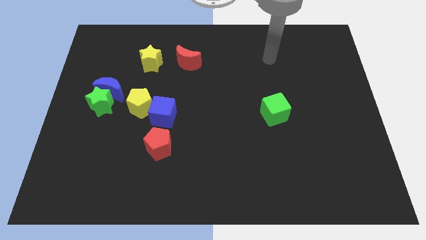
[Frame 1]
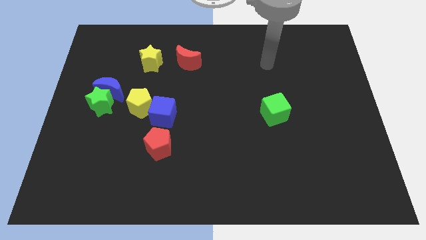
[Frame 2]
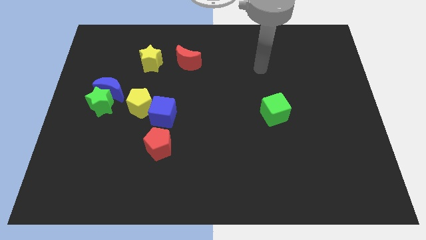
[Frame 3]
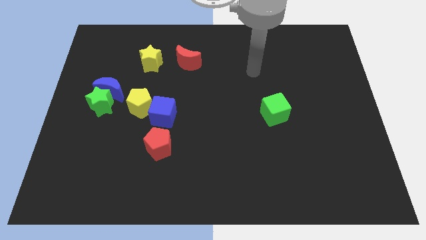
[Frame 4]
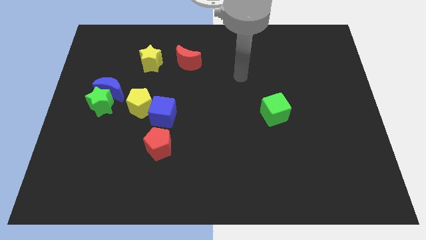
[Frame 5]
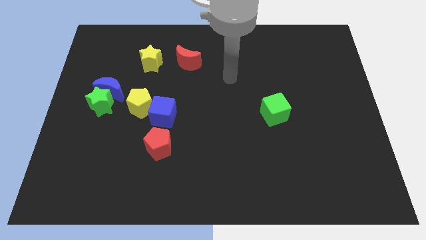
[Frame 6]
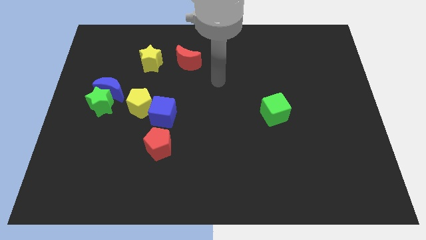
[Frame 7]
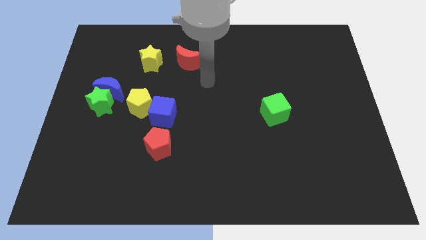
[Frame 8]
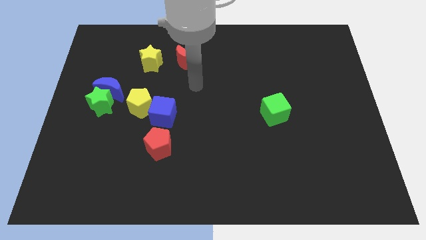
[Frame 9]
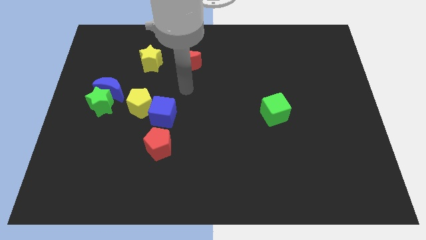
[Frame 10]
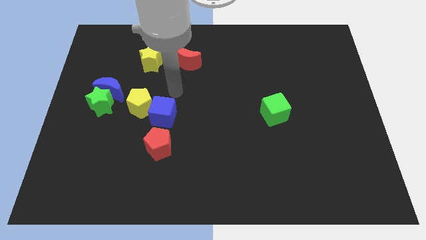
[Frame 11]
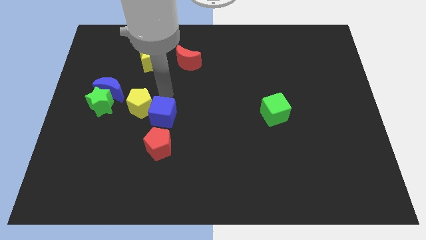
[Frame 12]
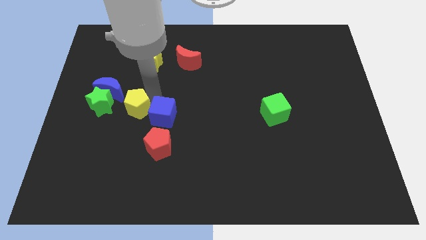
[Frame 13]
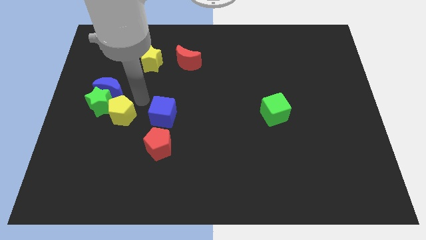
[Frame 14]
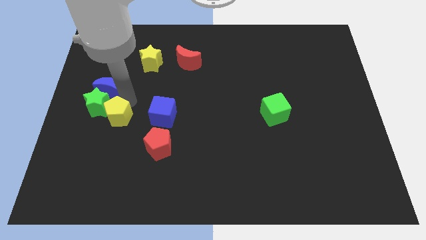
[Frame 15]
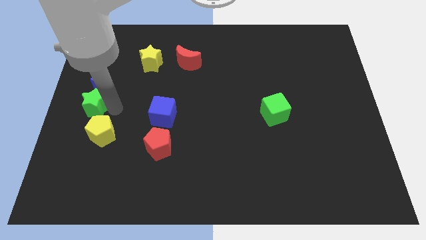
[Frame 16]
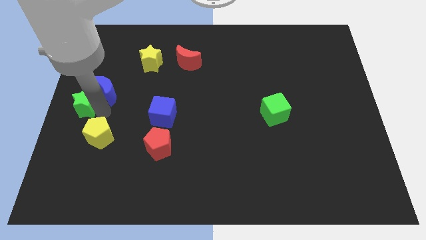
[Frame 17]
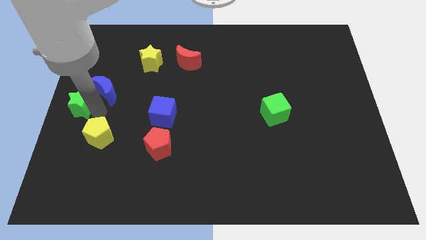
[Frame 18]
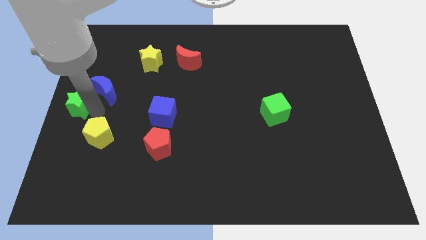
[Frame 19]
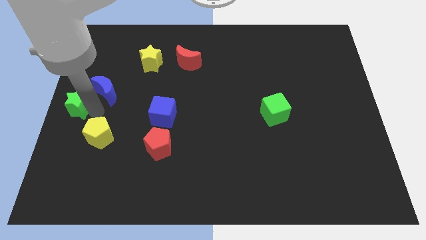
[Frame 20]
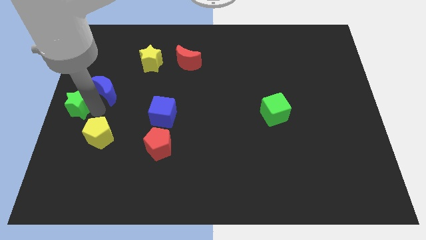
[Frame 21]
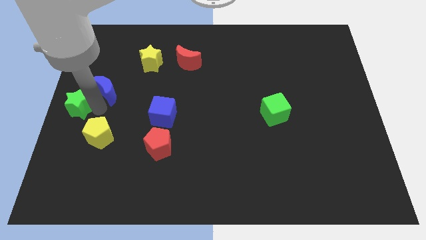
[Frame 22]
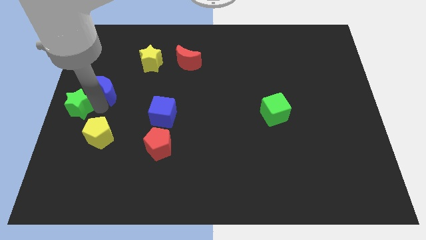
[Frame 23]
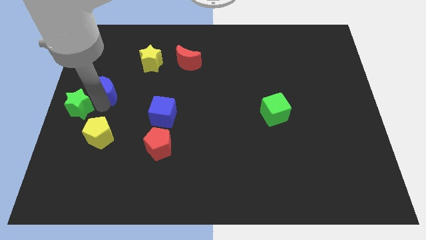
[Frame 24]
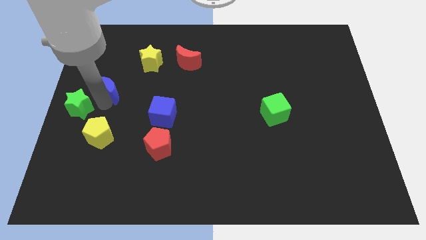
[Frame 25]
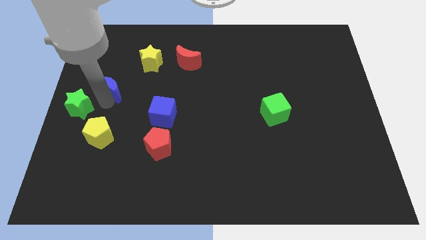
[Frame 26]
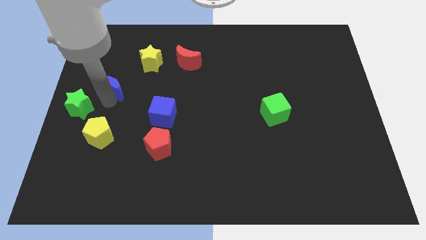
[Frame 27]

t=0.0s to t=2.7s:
move the blue moon away from the green star and yellow pentagon

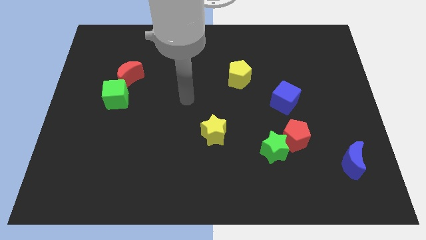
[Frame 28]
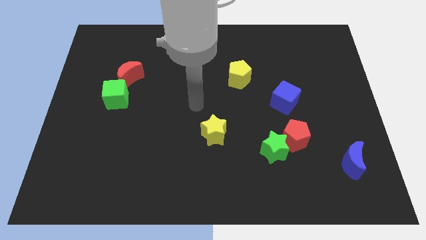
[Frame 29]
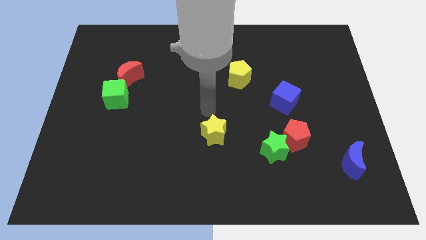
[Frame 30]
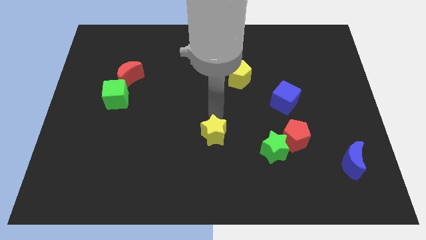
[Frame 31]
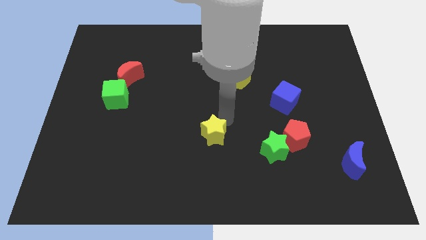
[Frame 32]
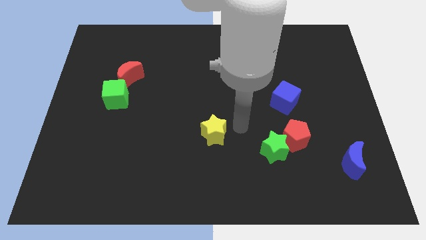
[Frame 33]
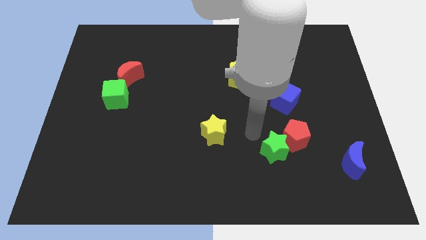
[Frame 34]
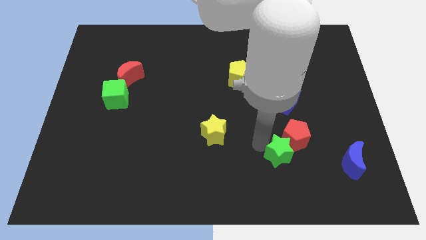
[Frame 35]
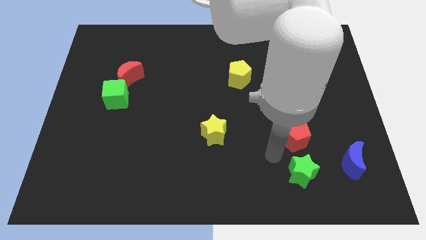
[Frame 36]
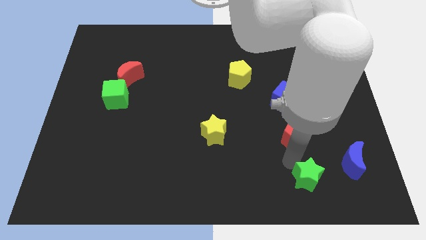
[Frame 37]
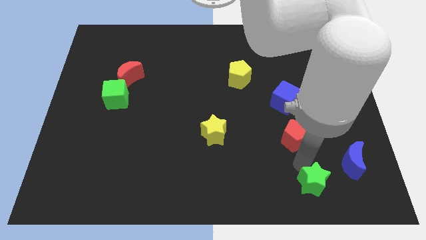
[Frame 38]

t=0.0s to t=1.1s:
move the red pentagon away from the green star

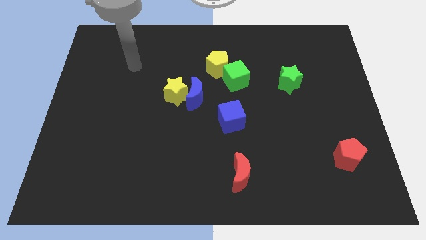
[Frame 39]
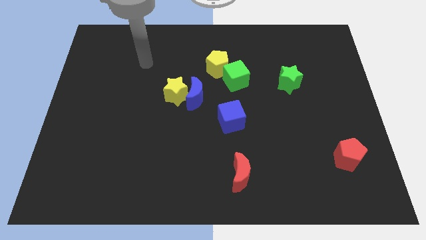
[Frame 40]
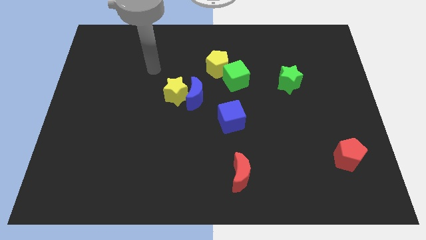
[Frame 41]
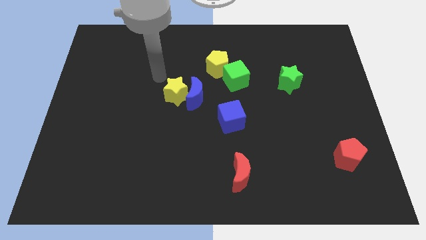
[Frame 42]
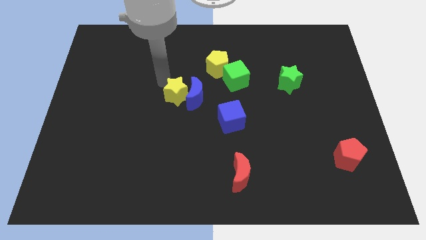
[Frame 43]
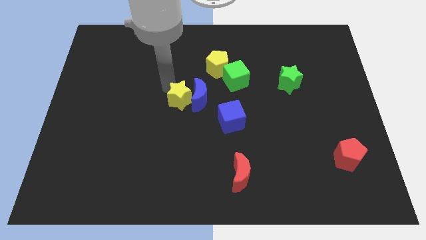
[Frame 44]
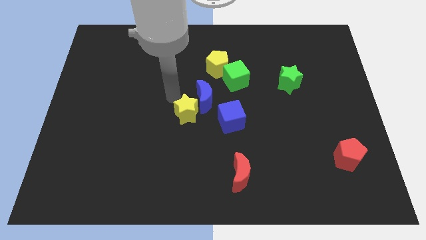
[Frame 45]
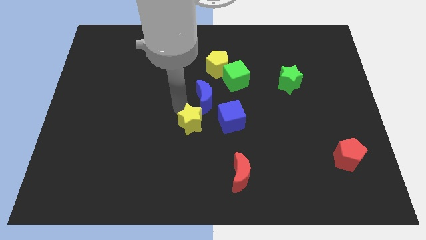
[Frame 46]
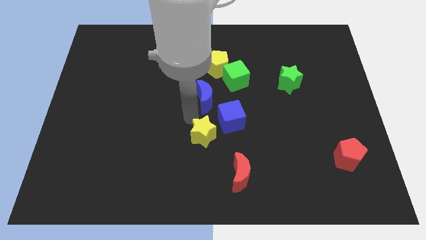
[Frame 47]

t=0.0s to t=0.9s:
move the blue moon away from the yellow star

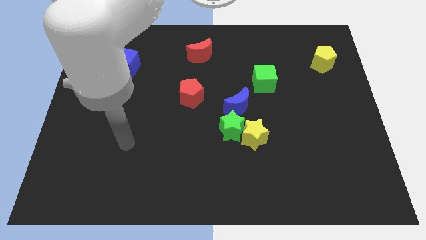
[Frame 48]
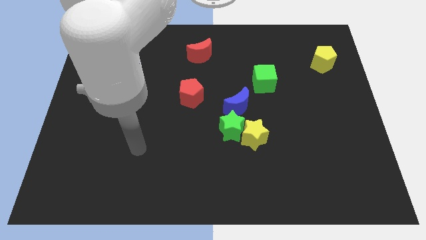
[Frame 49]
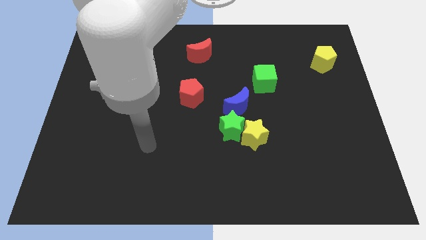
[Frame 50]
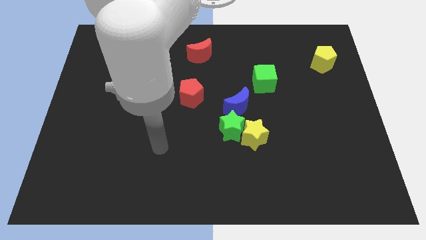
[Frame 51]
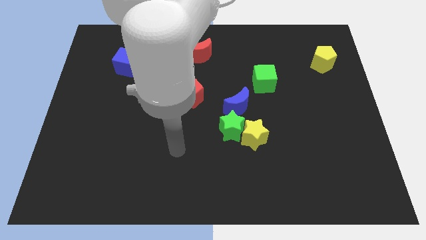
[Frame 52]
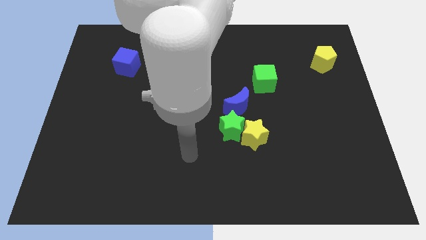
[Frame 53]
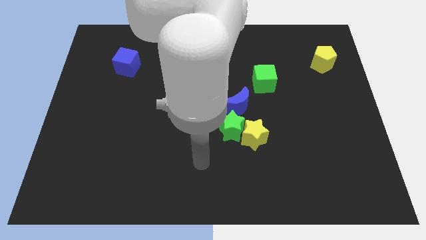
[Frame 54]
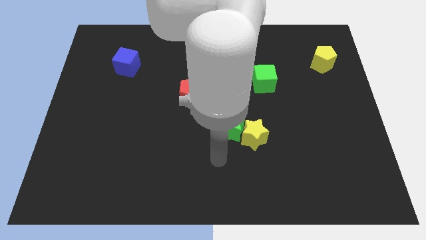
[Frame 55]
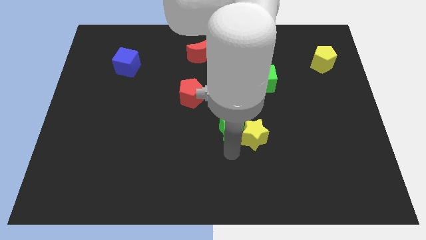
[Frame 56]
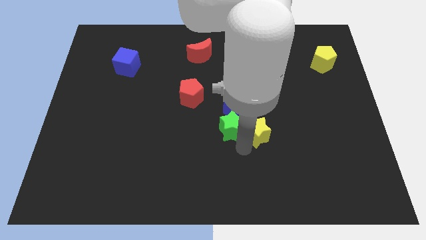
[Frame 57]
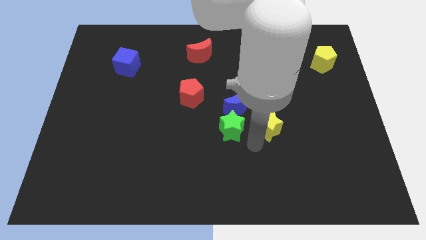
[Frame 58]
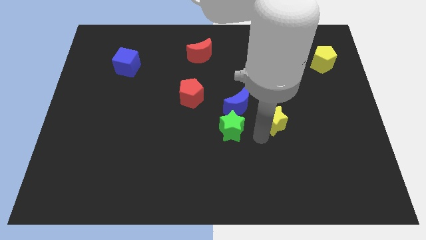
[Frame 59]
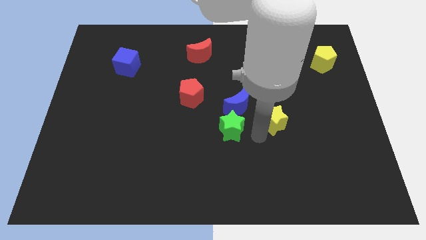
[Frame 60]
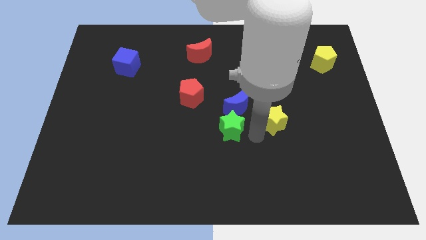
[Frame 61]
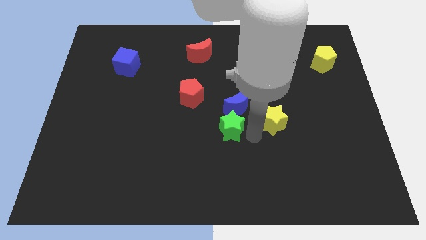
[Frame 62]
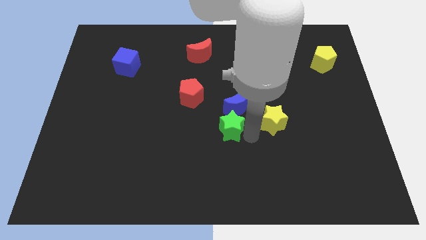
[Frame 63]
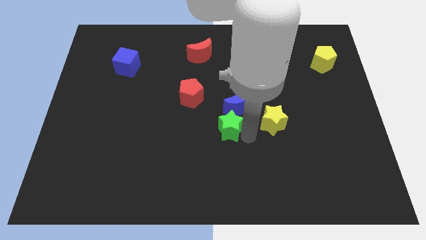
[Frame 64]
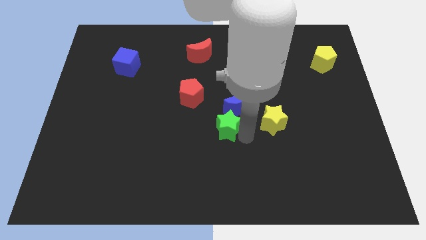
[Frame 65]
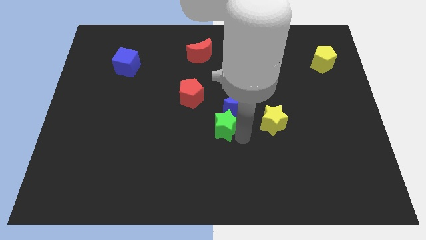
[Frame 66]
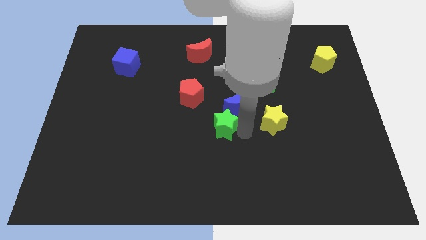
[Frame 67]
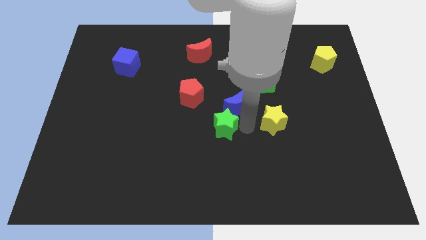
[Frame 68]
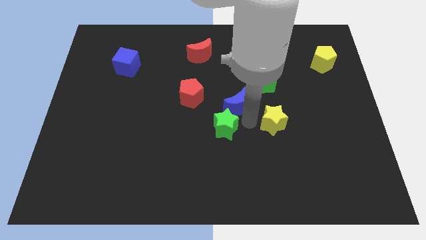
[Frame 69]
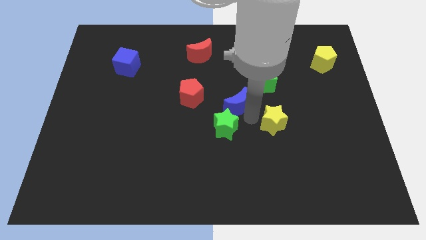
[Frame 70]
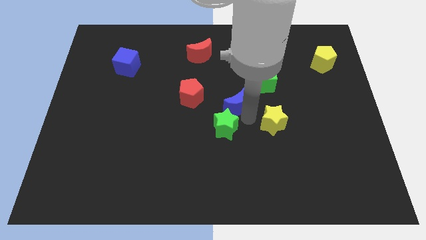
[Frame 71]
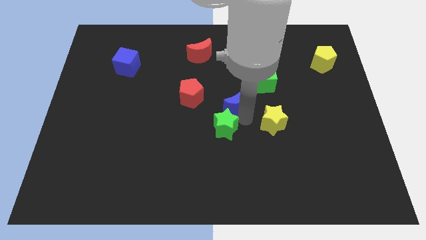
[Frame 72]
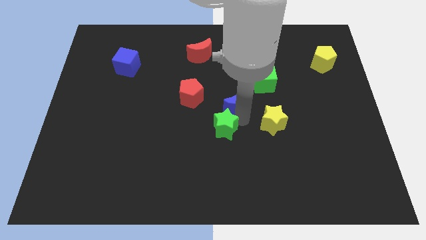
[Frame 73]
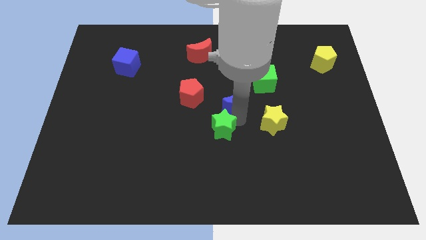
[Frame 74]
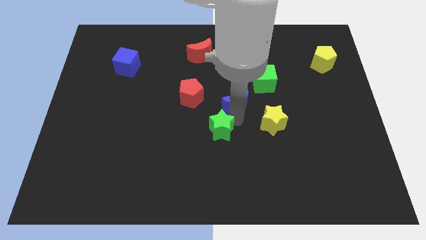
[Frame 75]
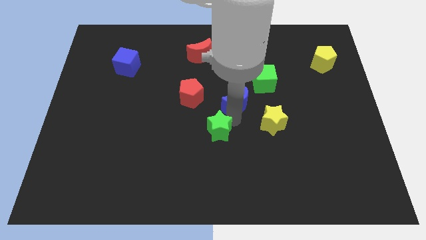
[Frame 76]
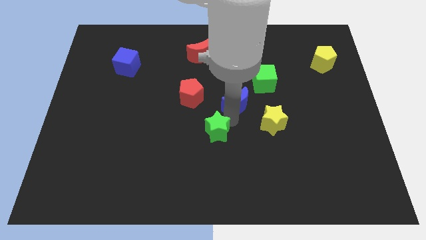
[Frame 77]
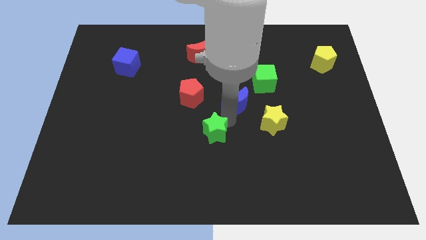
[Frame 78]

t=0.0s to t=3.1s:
separate the green star from the yellow star and blue moon

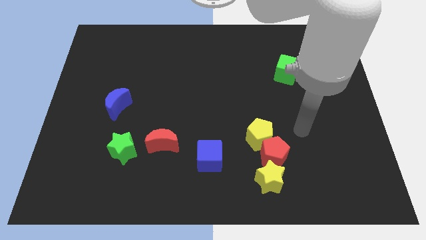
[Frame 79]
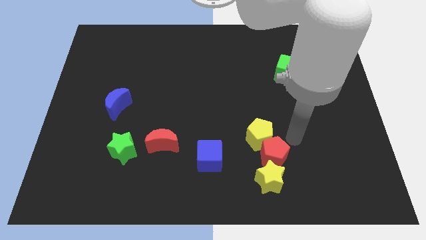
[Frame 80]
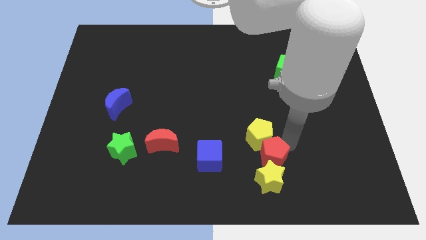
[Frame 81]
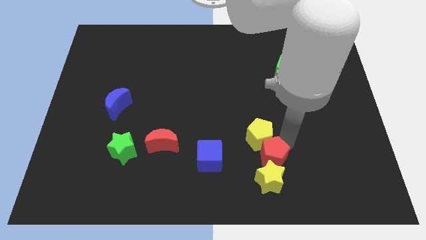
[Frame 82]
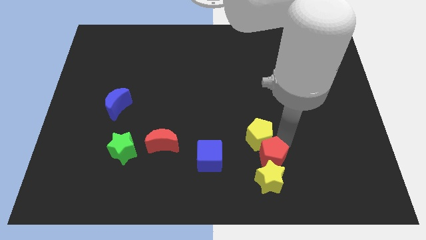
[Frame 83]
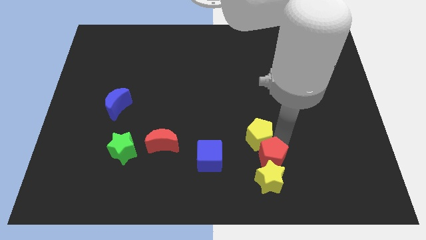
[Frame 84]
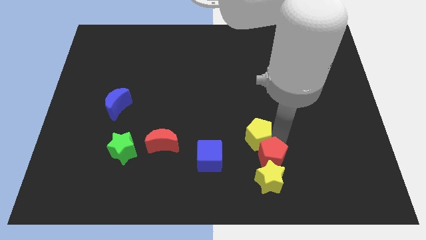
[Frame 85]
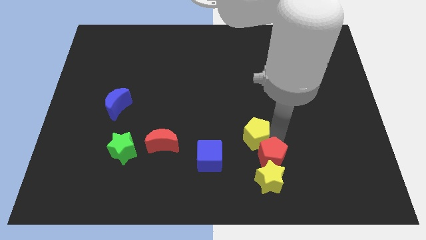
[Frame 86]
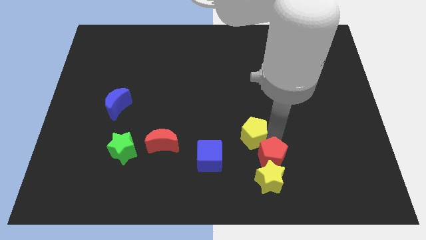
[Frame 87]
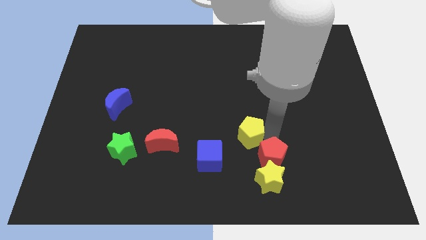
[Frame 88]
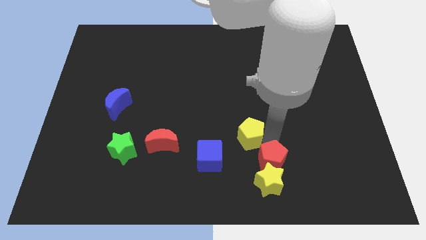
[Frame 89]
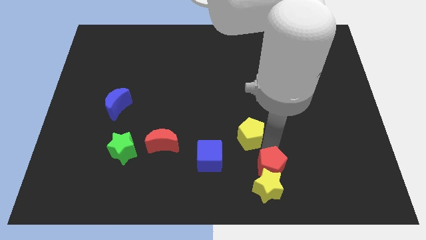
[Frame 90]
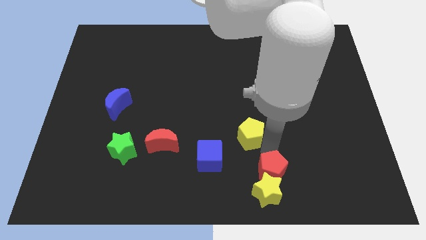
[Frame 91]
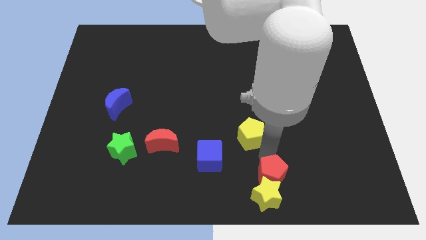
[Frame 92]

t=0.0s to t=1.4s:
pull the yellow pentagon apart from the red pentagon
